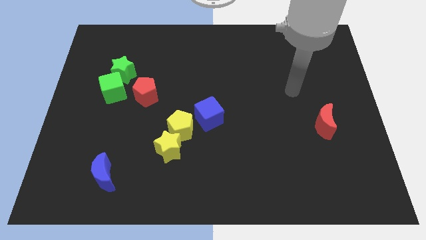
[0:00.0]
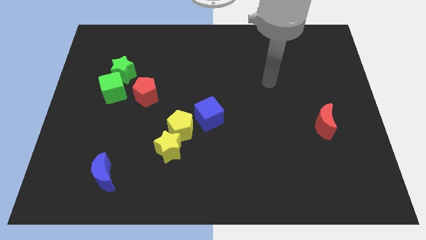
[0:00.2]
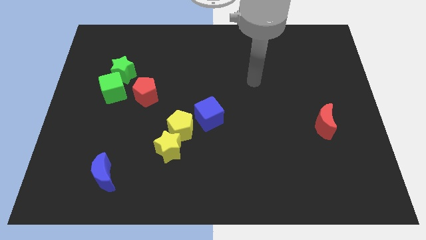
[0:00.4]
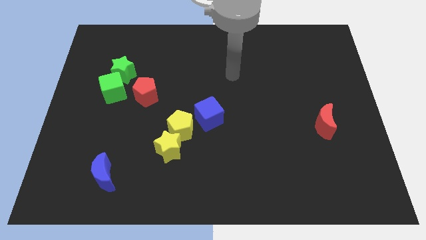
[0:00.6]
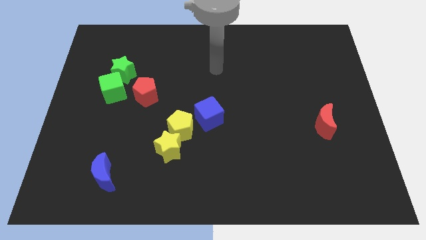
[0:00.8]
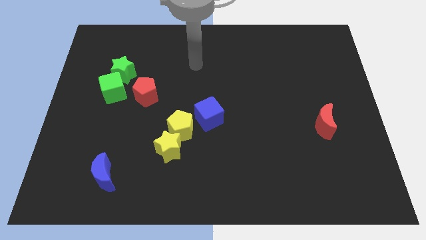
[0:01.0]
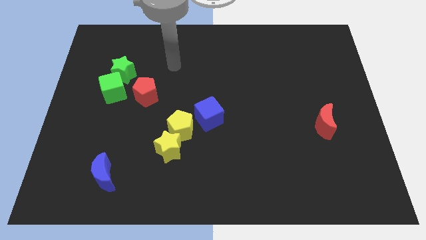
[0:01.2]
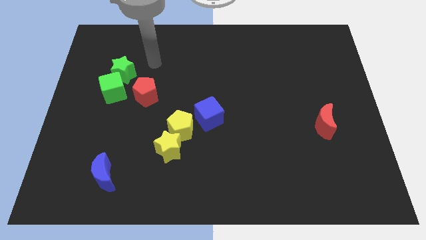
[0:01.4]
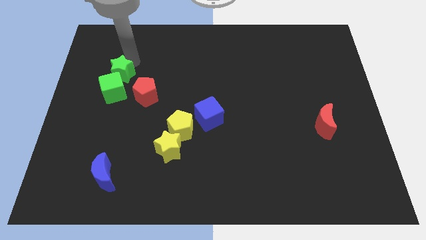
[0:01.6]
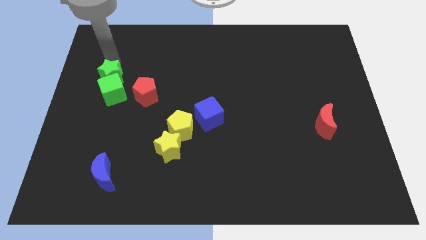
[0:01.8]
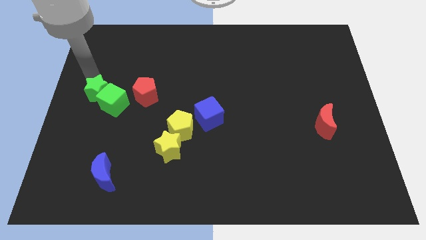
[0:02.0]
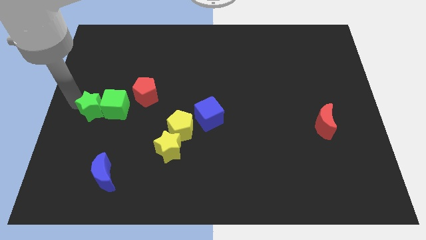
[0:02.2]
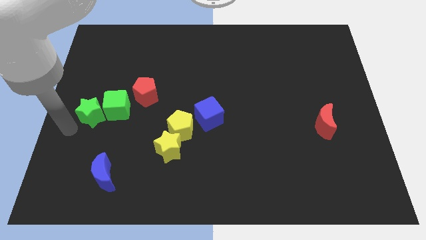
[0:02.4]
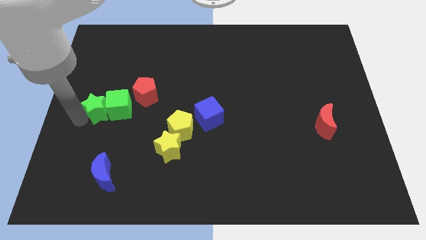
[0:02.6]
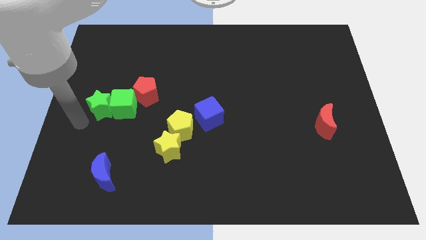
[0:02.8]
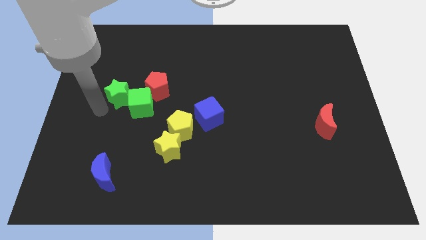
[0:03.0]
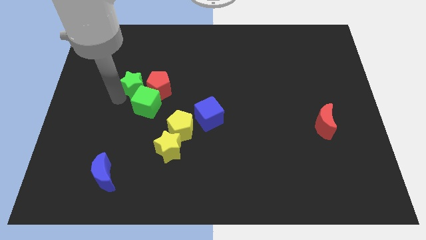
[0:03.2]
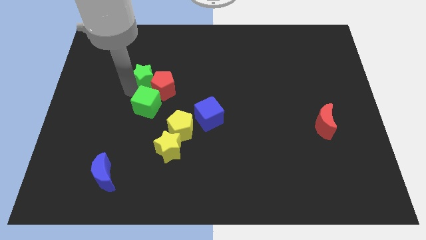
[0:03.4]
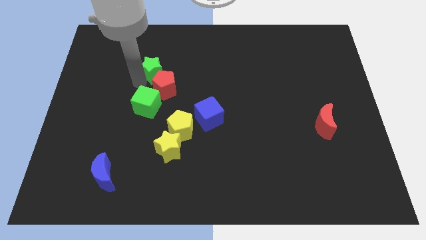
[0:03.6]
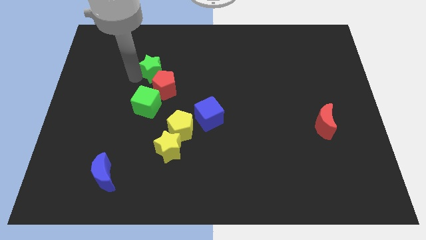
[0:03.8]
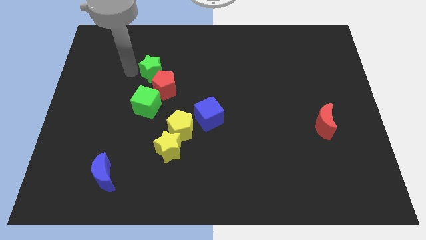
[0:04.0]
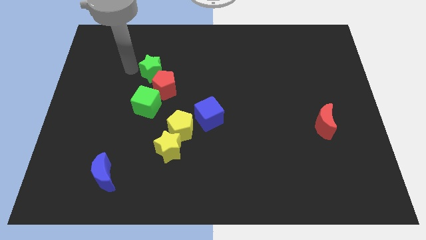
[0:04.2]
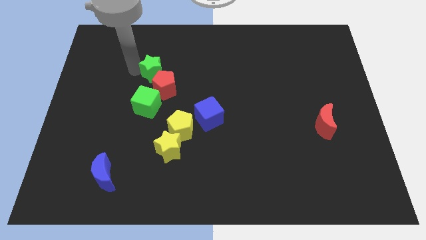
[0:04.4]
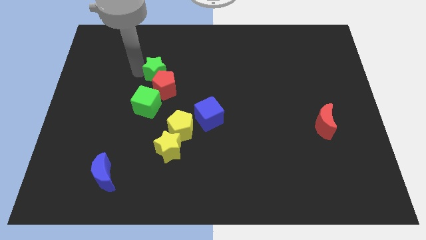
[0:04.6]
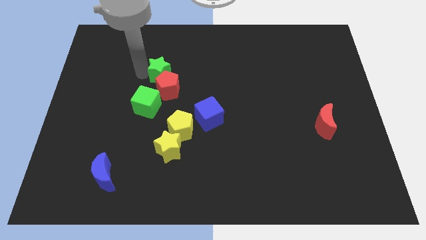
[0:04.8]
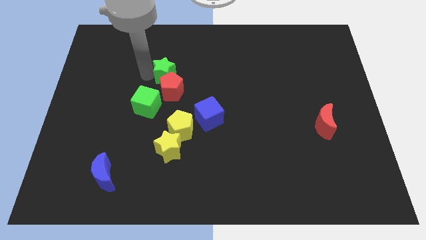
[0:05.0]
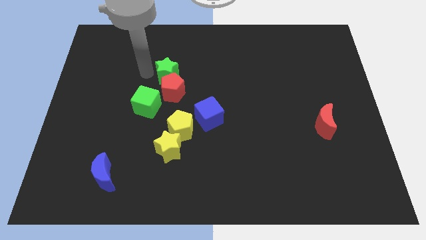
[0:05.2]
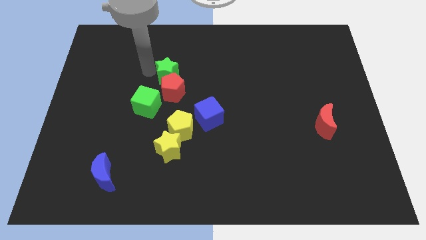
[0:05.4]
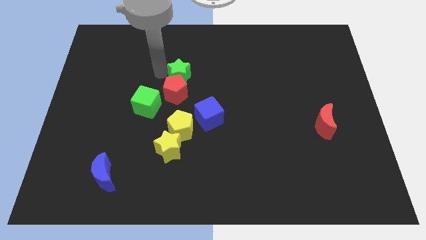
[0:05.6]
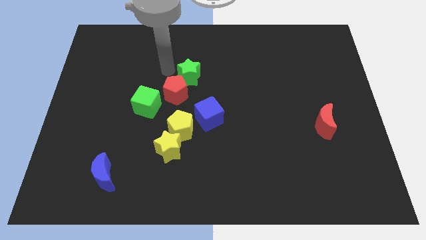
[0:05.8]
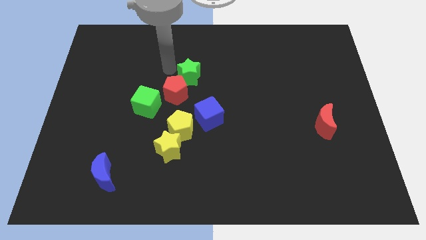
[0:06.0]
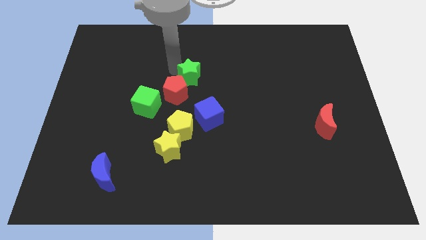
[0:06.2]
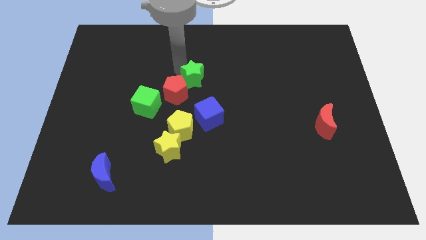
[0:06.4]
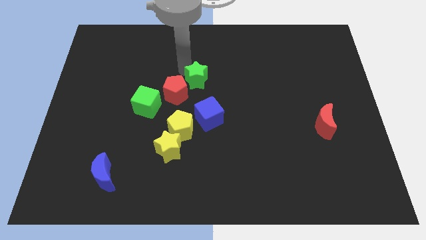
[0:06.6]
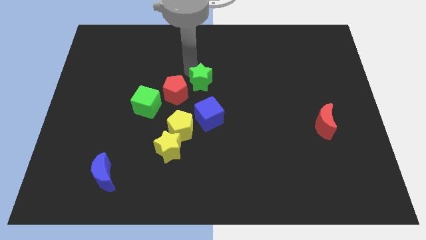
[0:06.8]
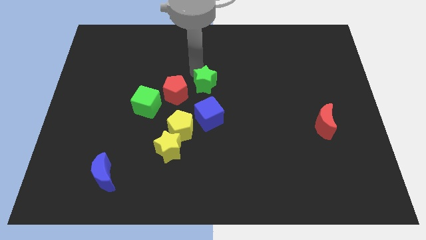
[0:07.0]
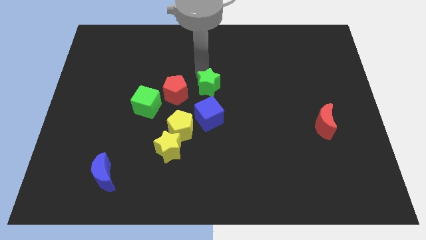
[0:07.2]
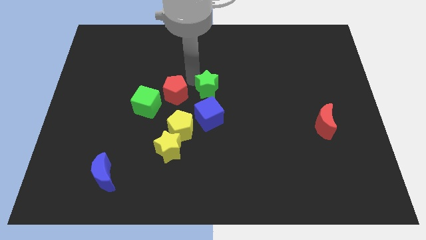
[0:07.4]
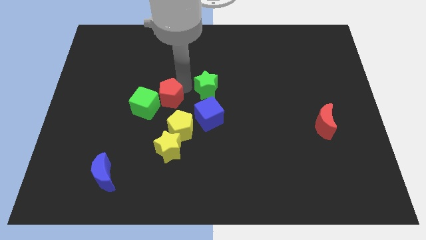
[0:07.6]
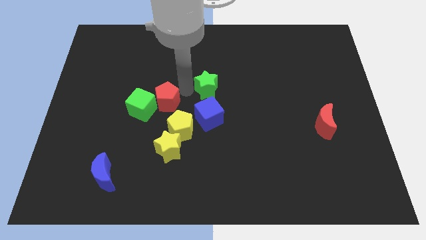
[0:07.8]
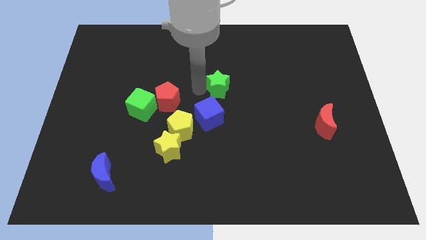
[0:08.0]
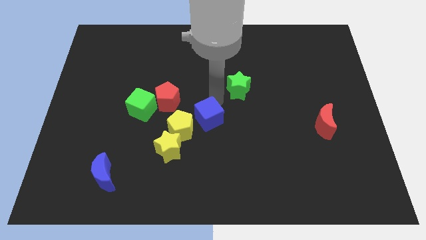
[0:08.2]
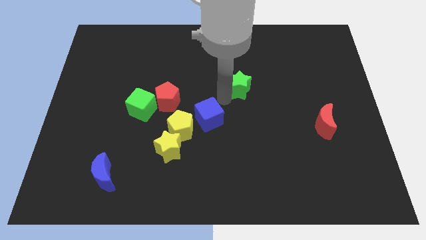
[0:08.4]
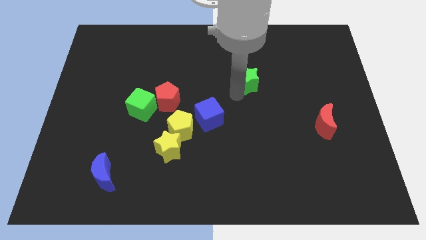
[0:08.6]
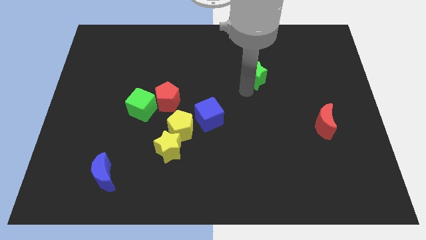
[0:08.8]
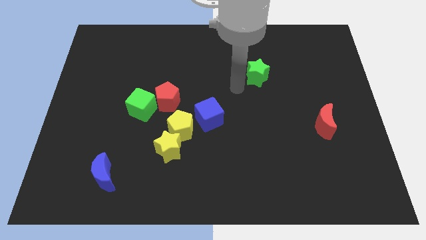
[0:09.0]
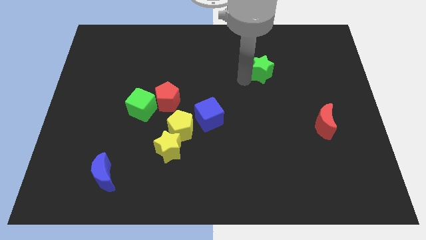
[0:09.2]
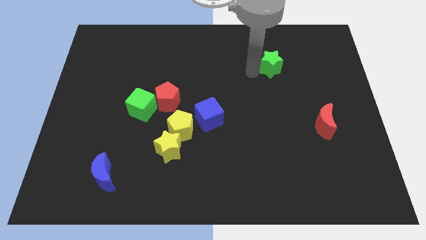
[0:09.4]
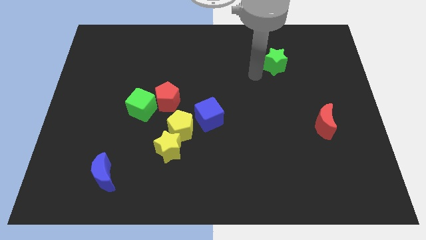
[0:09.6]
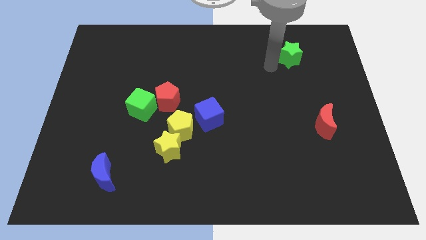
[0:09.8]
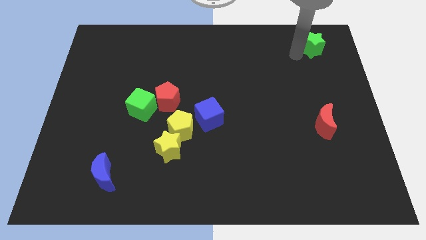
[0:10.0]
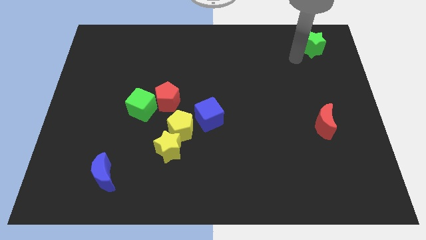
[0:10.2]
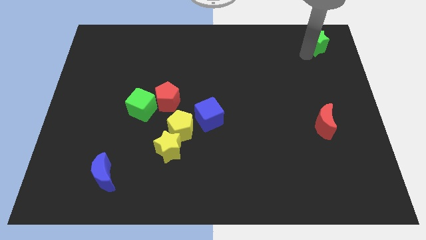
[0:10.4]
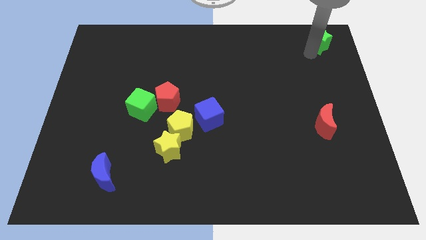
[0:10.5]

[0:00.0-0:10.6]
put the green star to the upper right corner
